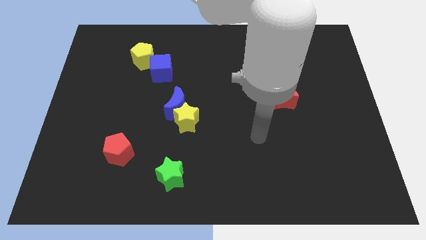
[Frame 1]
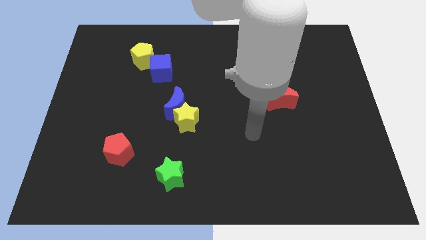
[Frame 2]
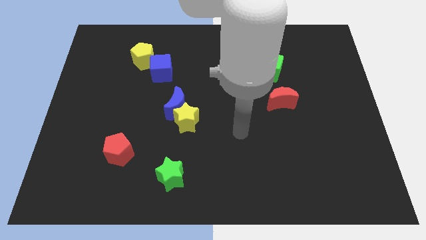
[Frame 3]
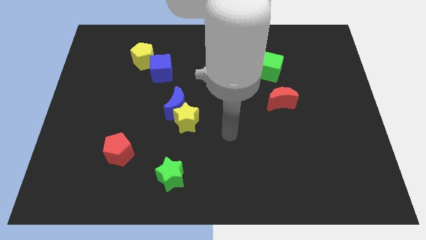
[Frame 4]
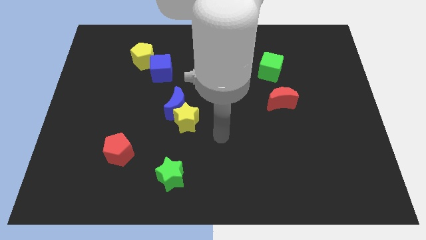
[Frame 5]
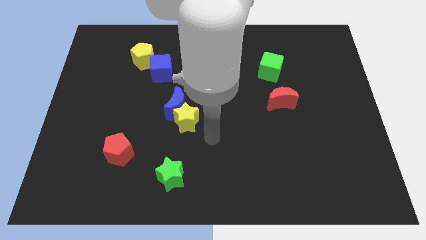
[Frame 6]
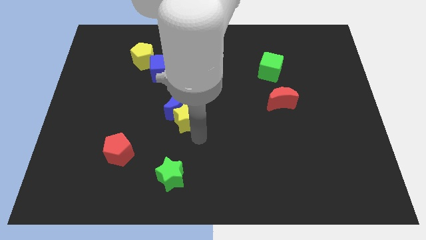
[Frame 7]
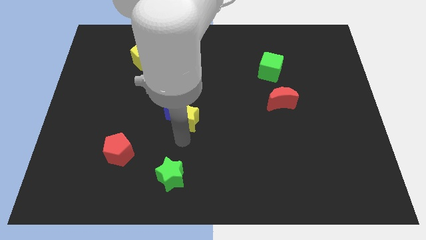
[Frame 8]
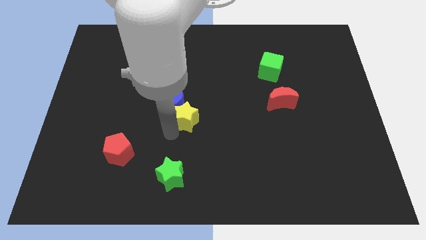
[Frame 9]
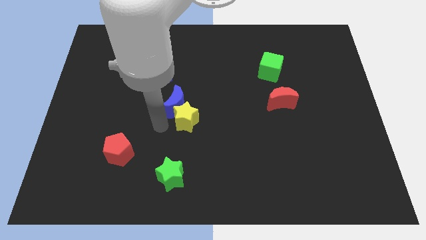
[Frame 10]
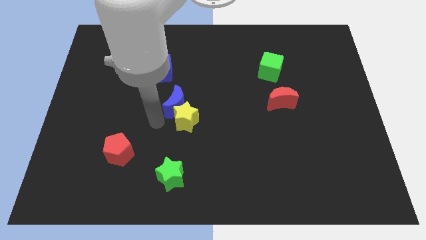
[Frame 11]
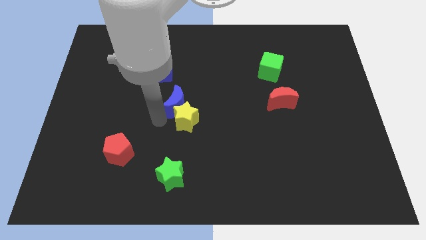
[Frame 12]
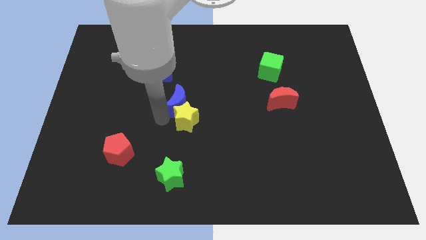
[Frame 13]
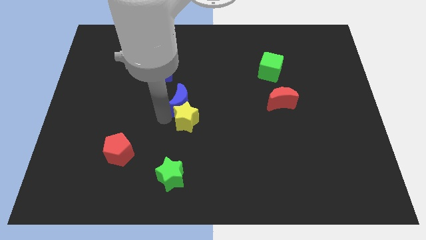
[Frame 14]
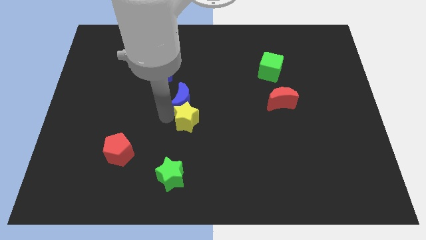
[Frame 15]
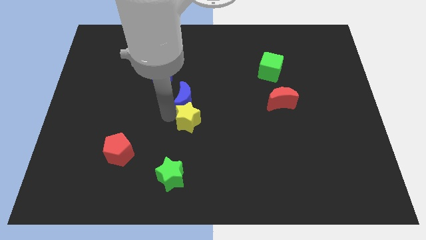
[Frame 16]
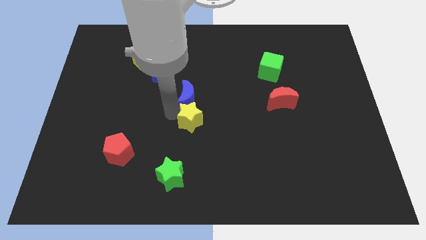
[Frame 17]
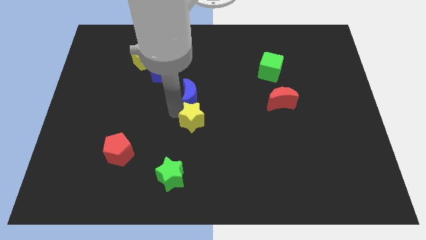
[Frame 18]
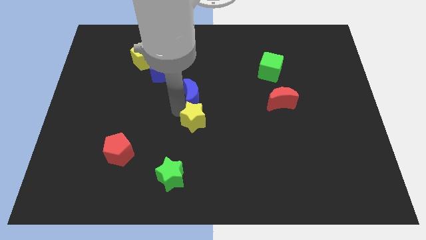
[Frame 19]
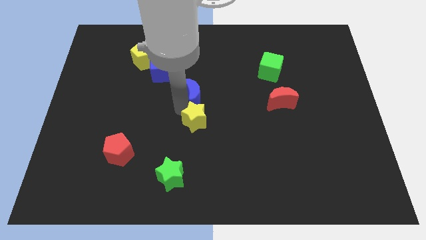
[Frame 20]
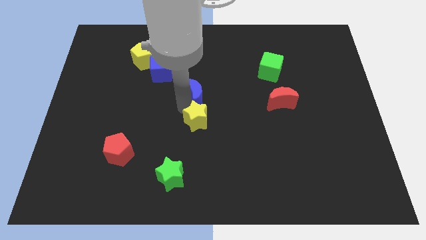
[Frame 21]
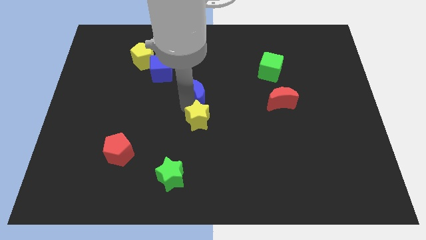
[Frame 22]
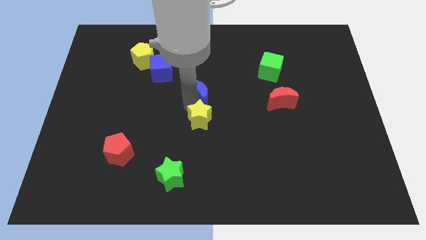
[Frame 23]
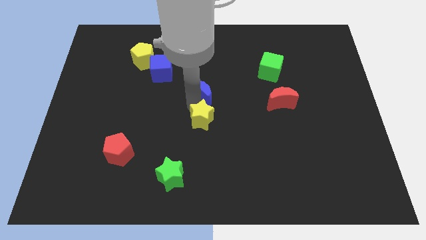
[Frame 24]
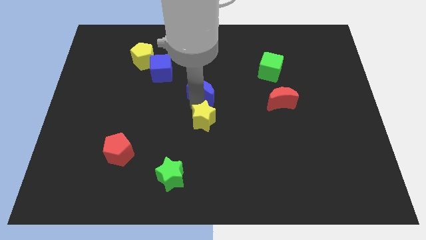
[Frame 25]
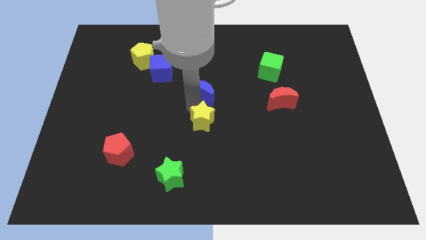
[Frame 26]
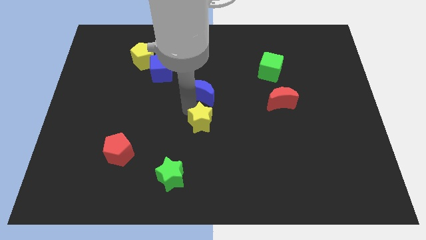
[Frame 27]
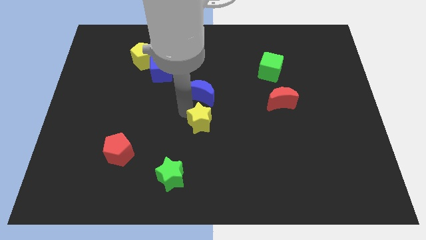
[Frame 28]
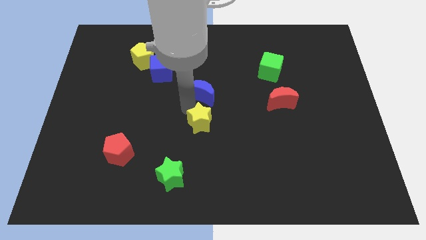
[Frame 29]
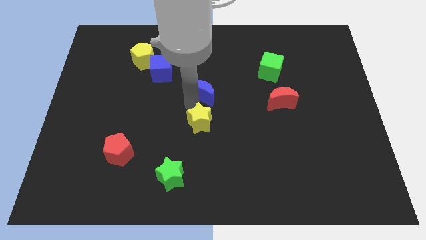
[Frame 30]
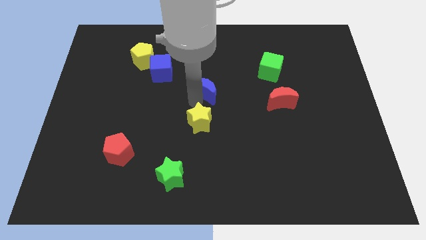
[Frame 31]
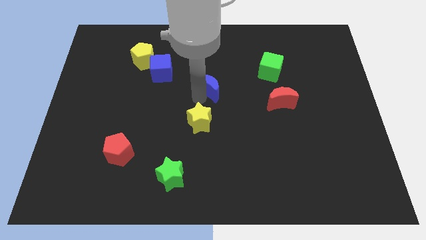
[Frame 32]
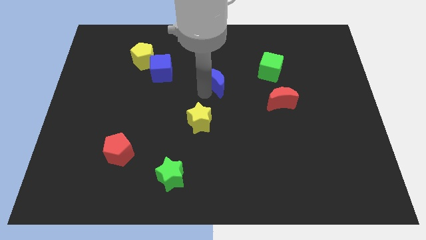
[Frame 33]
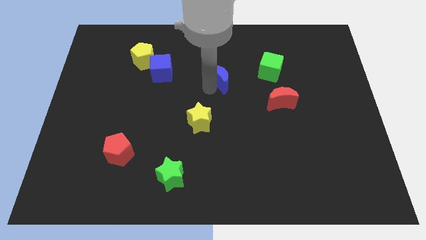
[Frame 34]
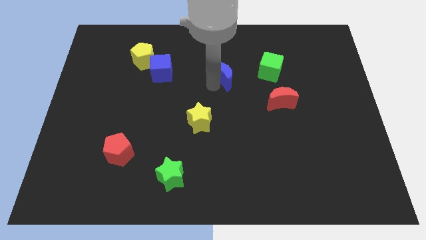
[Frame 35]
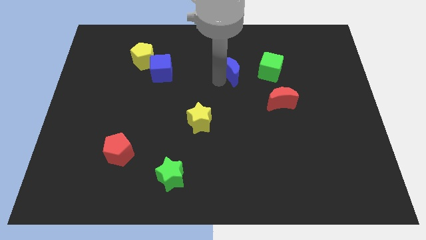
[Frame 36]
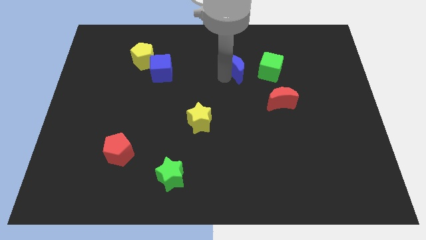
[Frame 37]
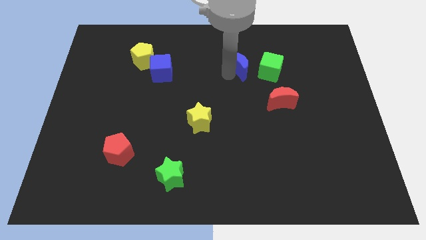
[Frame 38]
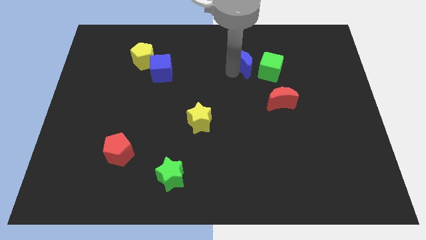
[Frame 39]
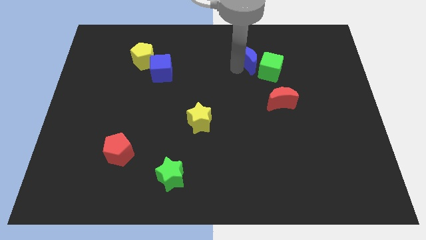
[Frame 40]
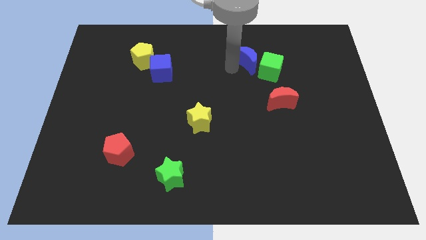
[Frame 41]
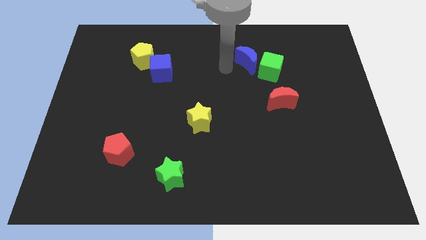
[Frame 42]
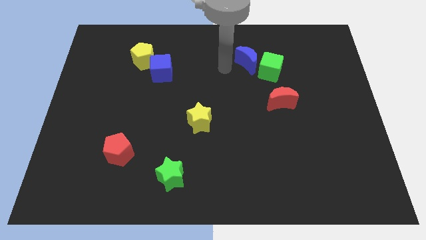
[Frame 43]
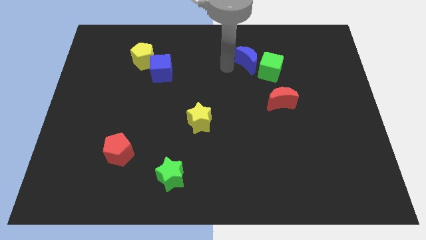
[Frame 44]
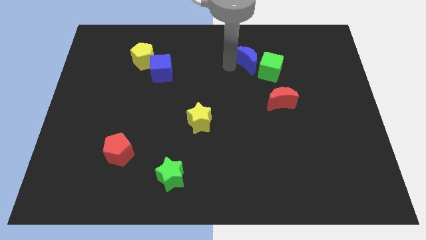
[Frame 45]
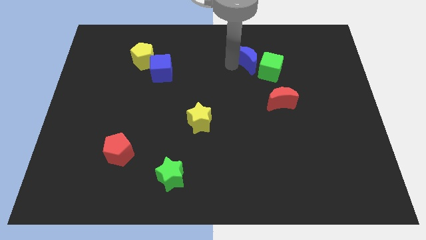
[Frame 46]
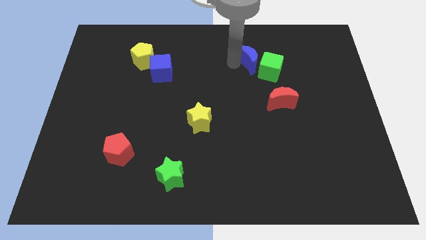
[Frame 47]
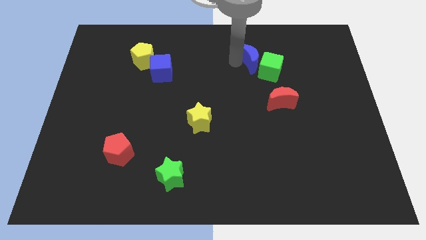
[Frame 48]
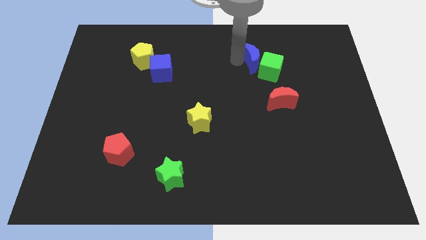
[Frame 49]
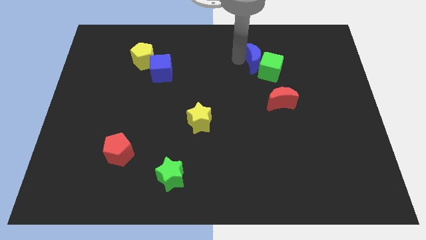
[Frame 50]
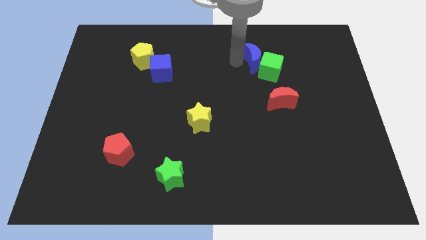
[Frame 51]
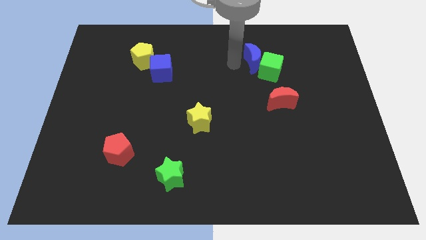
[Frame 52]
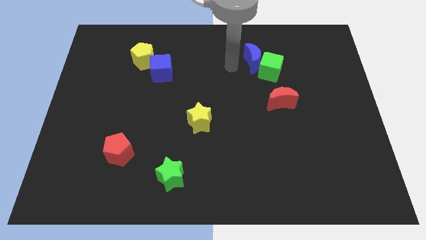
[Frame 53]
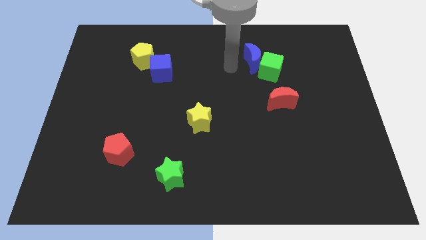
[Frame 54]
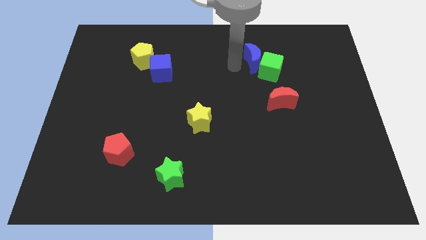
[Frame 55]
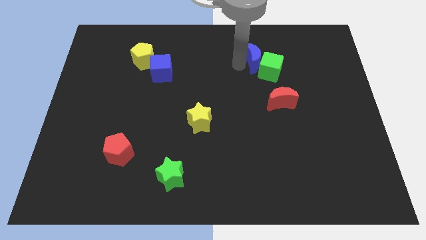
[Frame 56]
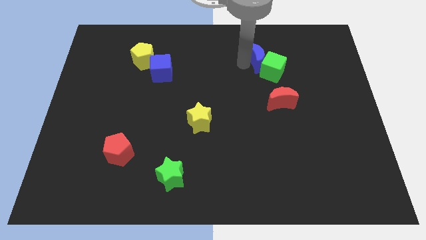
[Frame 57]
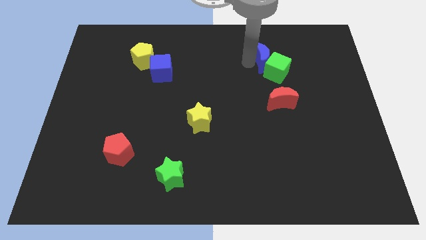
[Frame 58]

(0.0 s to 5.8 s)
put the blue moon to the top side of the red moon

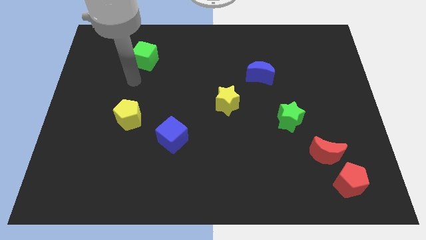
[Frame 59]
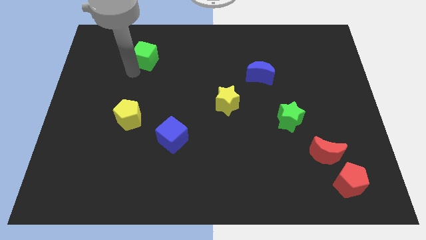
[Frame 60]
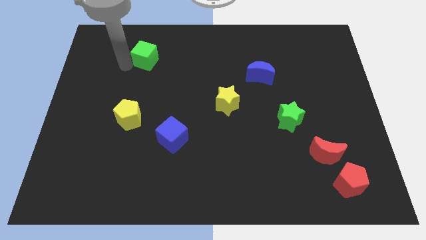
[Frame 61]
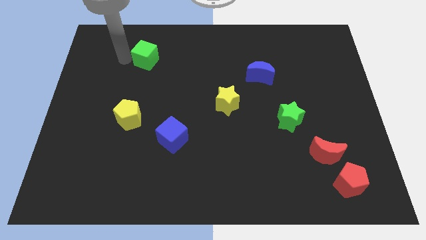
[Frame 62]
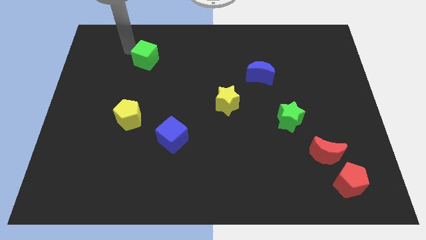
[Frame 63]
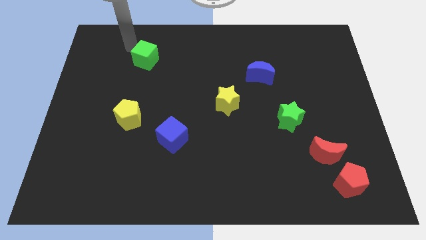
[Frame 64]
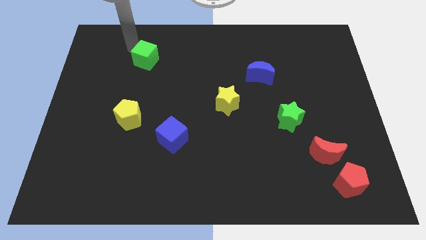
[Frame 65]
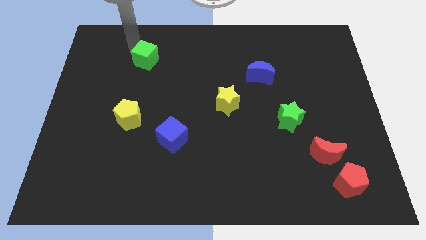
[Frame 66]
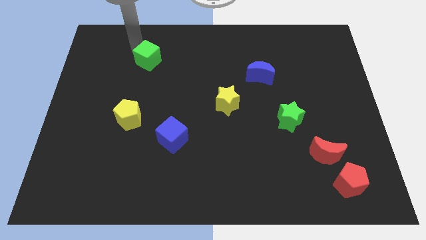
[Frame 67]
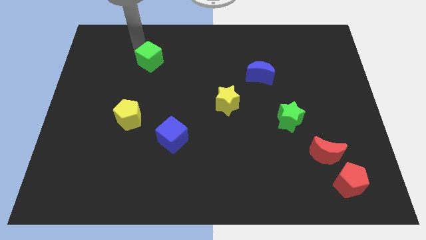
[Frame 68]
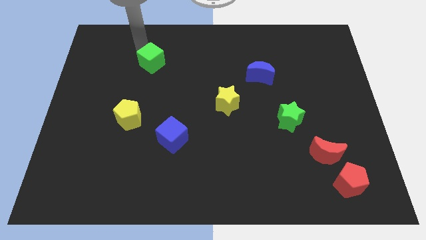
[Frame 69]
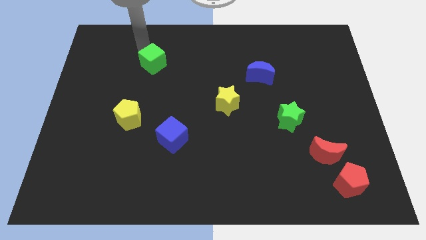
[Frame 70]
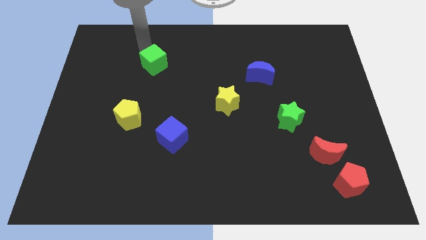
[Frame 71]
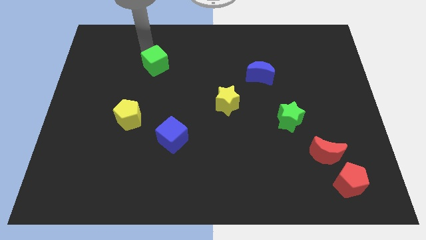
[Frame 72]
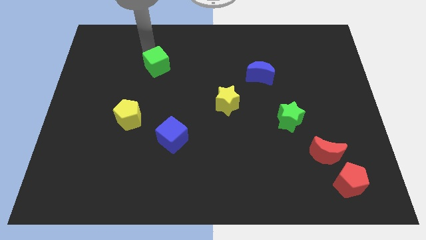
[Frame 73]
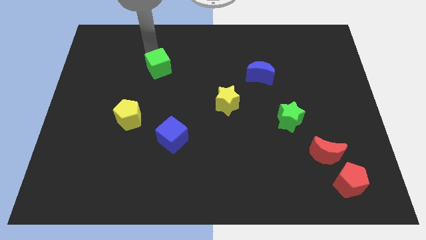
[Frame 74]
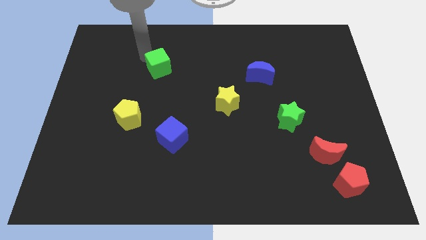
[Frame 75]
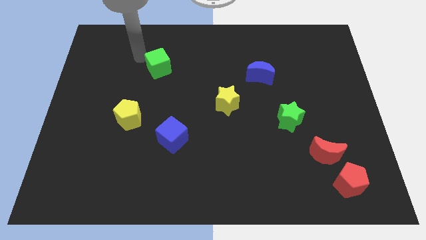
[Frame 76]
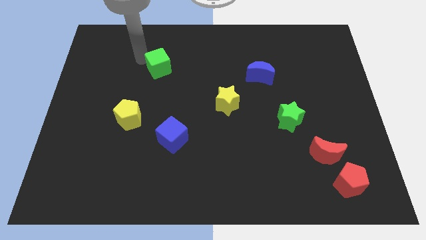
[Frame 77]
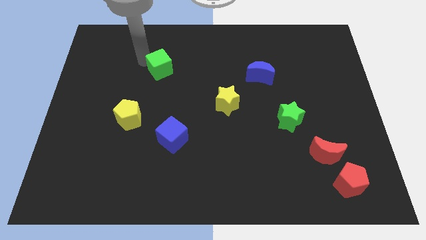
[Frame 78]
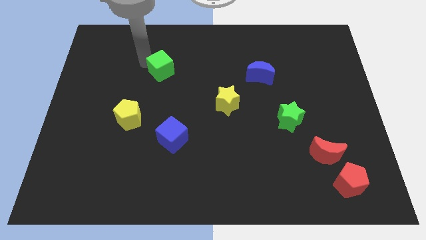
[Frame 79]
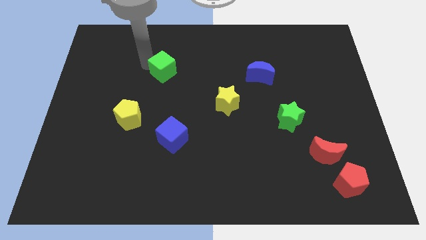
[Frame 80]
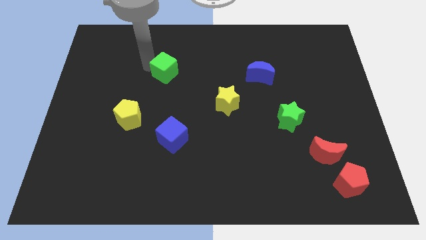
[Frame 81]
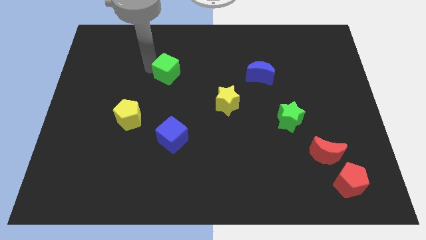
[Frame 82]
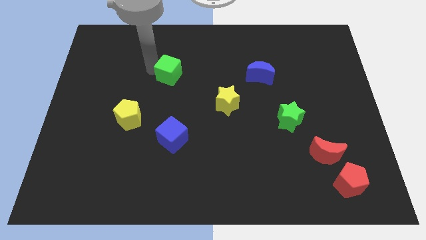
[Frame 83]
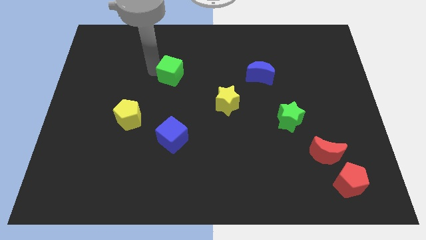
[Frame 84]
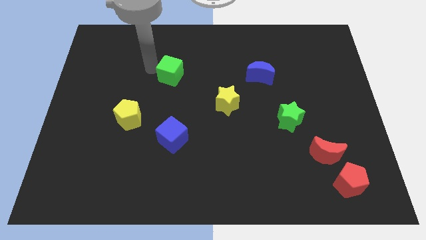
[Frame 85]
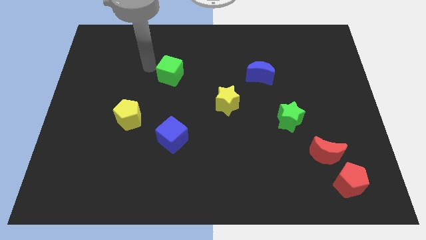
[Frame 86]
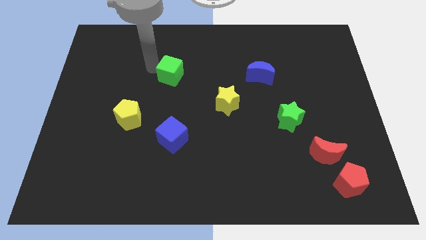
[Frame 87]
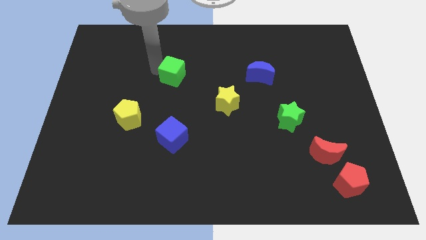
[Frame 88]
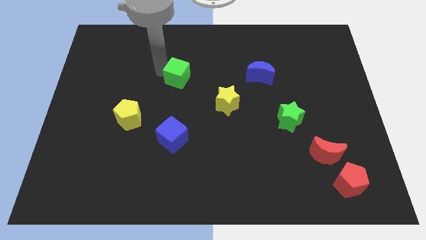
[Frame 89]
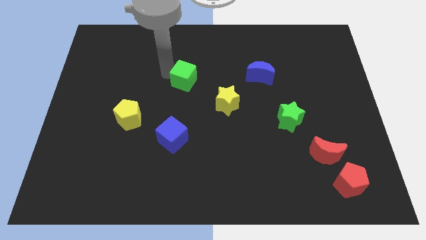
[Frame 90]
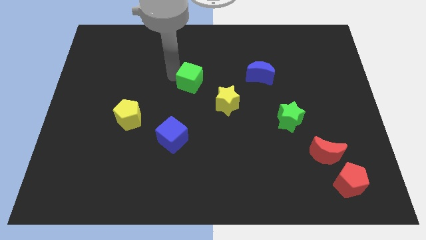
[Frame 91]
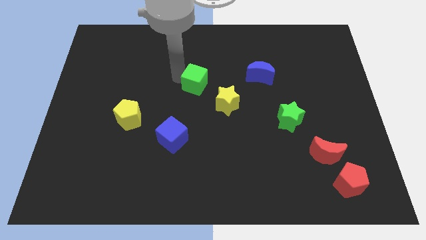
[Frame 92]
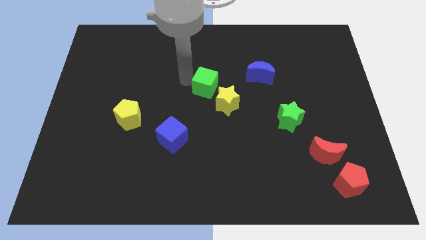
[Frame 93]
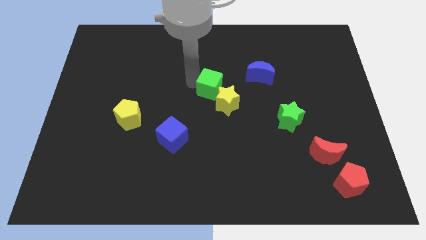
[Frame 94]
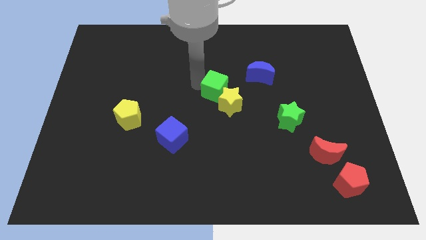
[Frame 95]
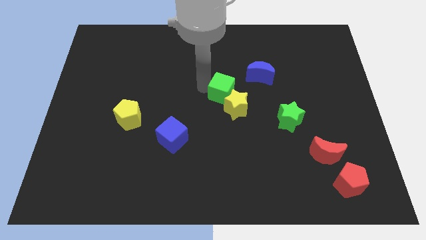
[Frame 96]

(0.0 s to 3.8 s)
push the green cube to the bottom left of the blue moon
